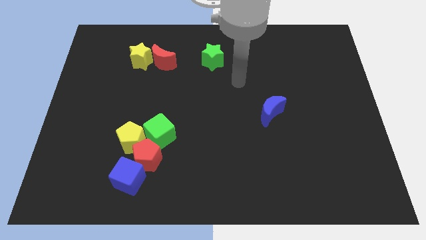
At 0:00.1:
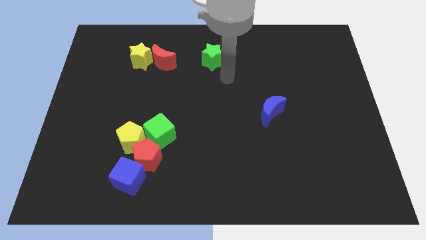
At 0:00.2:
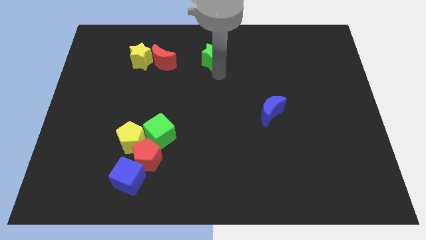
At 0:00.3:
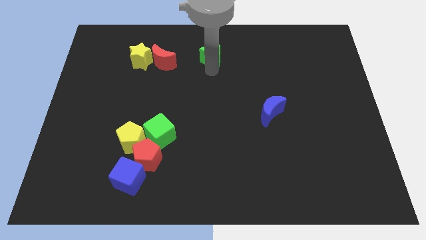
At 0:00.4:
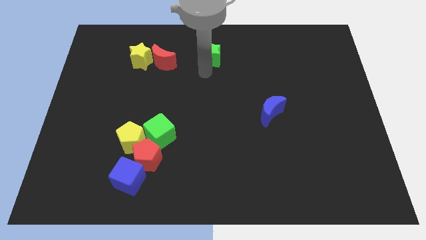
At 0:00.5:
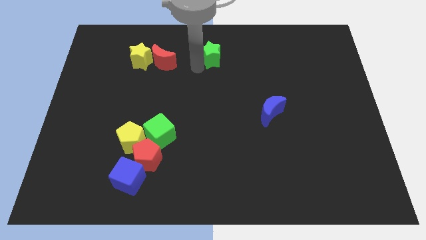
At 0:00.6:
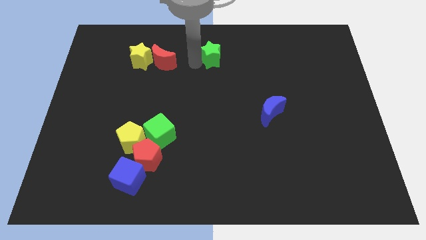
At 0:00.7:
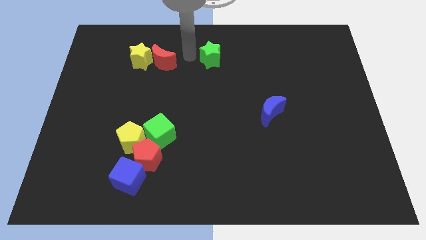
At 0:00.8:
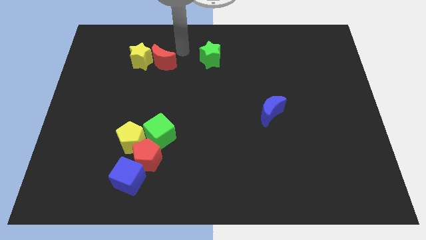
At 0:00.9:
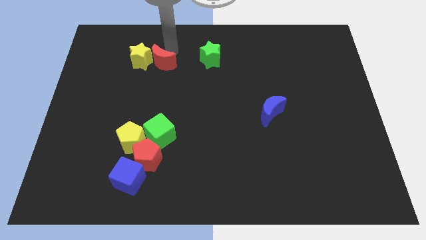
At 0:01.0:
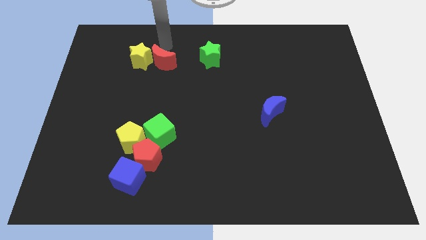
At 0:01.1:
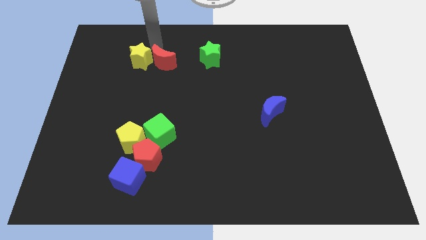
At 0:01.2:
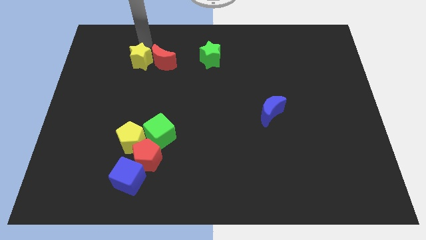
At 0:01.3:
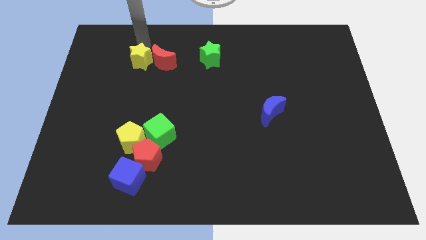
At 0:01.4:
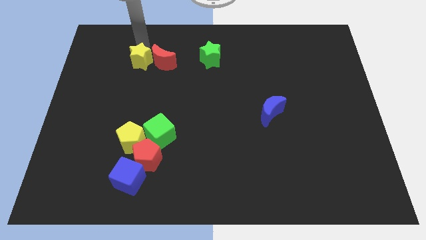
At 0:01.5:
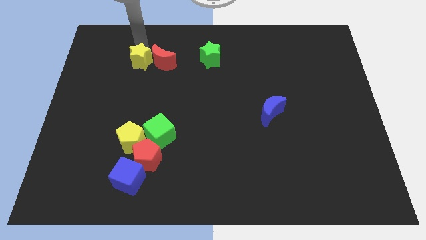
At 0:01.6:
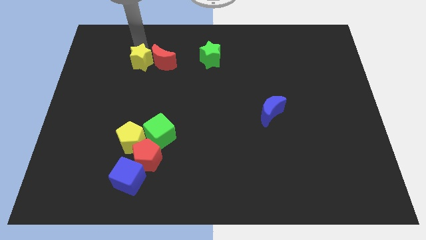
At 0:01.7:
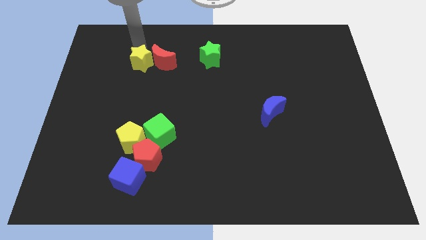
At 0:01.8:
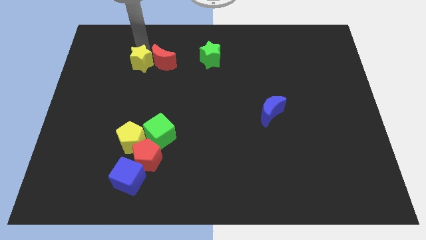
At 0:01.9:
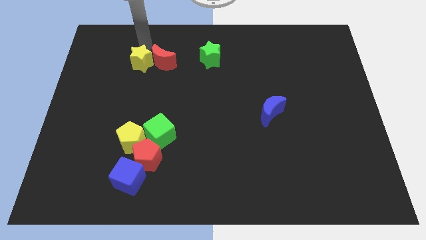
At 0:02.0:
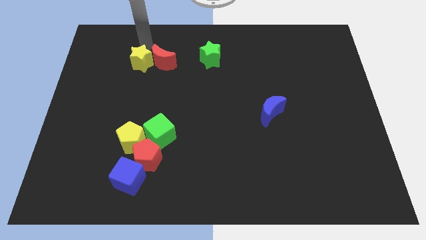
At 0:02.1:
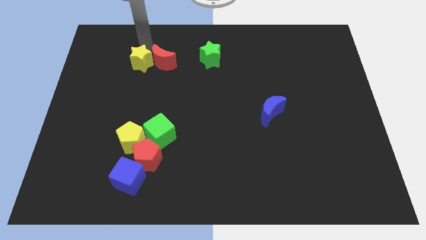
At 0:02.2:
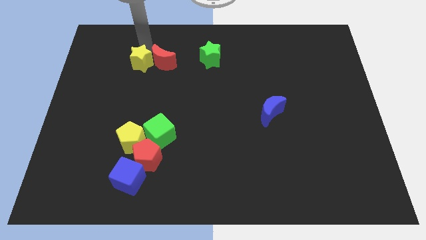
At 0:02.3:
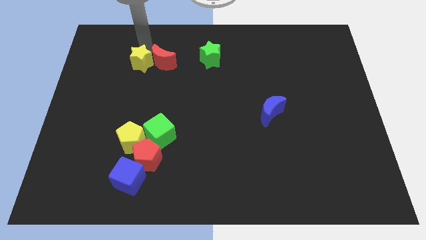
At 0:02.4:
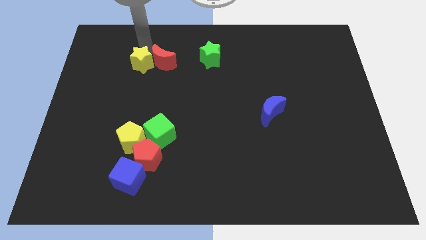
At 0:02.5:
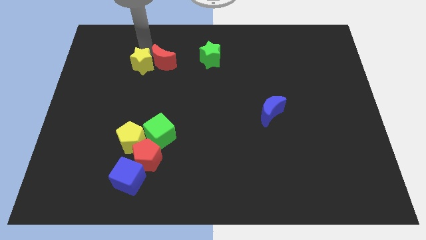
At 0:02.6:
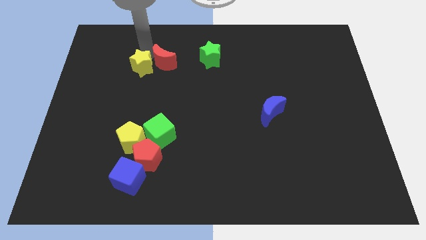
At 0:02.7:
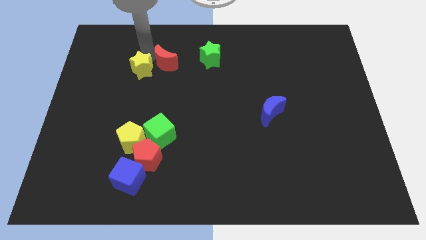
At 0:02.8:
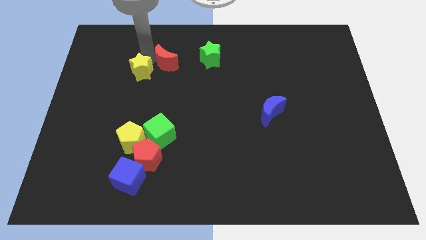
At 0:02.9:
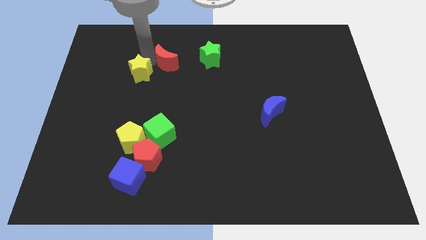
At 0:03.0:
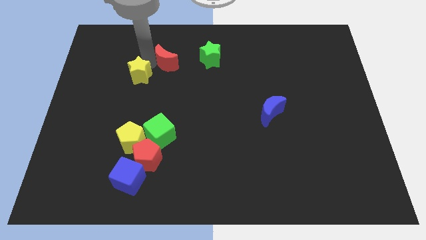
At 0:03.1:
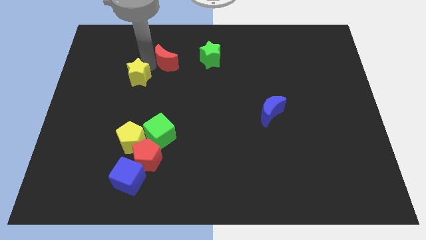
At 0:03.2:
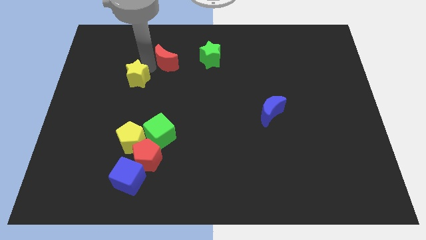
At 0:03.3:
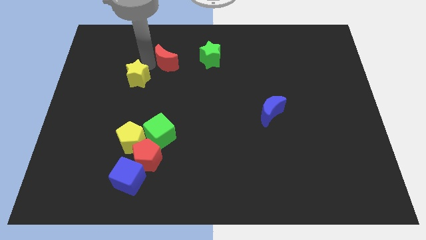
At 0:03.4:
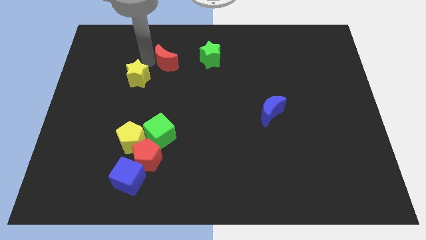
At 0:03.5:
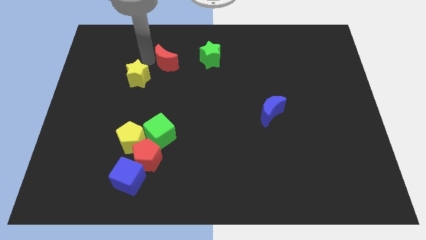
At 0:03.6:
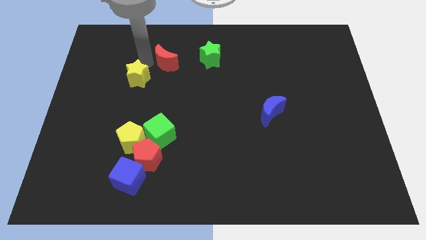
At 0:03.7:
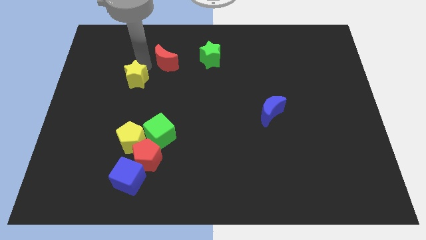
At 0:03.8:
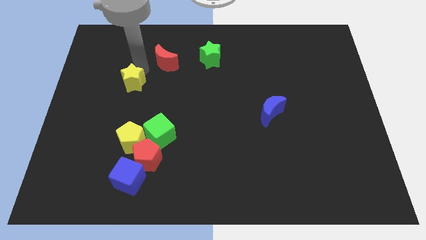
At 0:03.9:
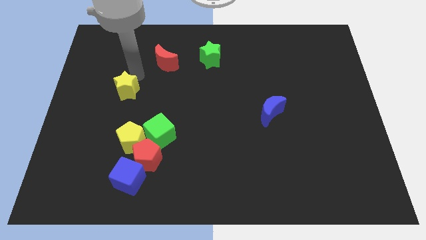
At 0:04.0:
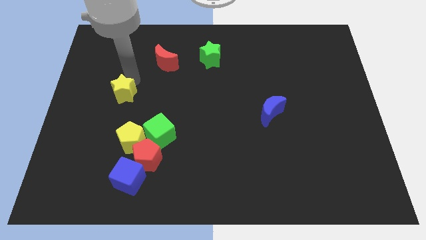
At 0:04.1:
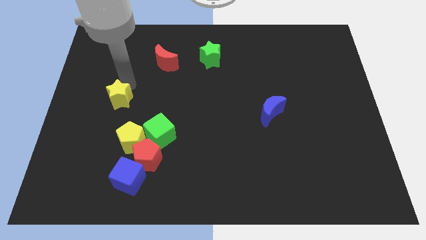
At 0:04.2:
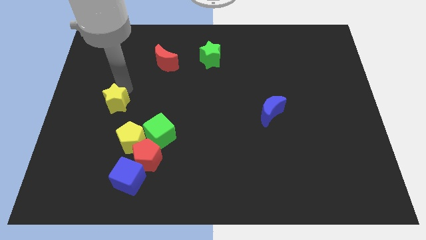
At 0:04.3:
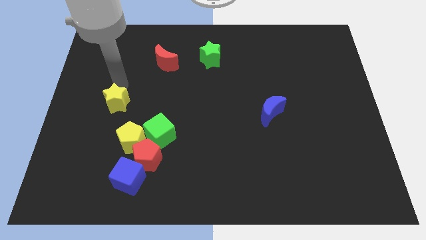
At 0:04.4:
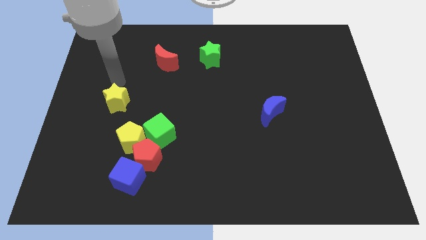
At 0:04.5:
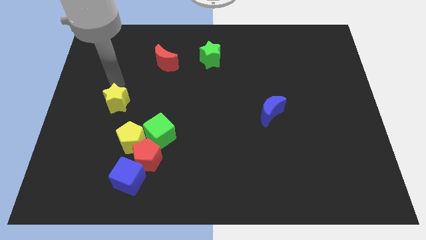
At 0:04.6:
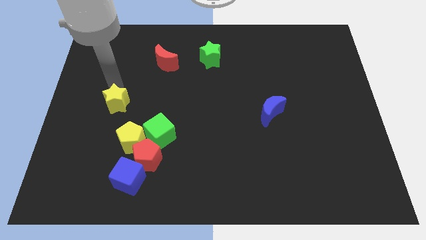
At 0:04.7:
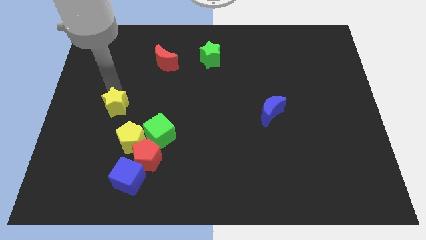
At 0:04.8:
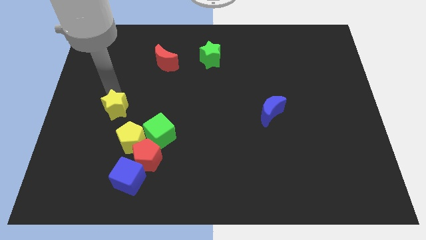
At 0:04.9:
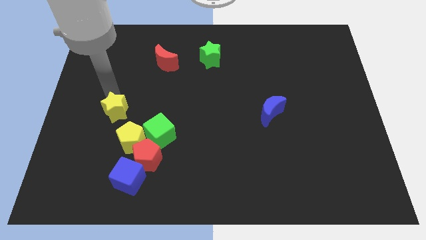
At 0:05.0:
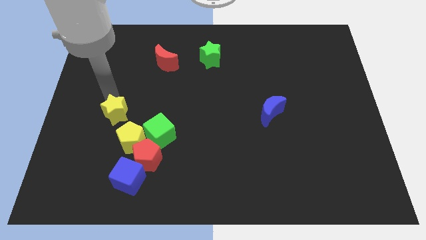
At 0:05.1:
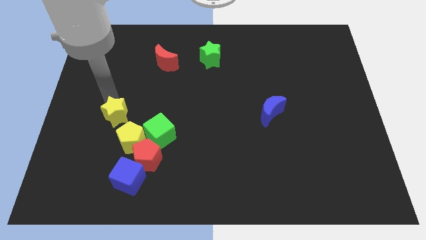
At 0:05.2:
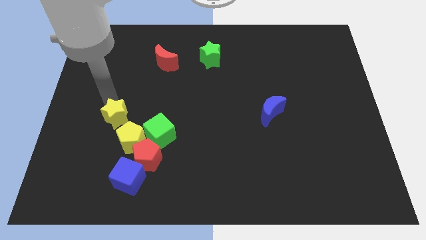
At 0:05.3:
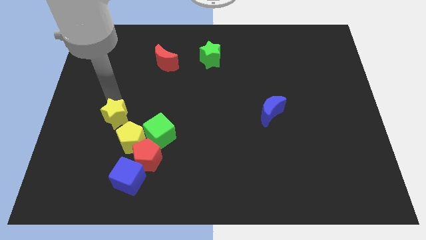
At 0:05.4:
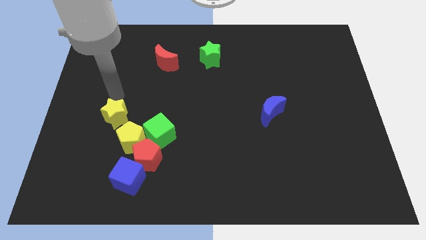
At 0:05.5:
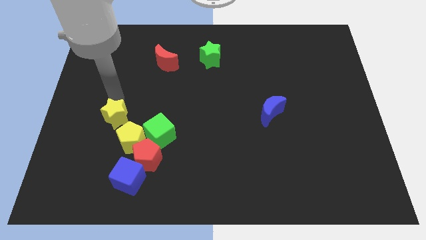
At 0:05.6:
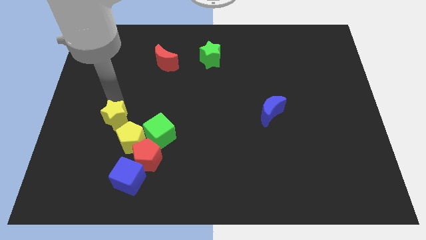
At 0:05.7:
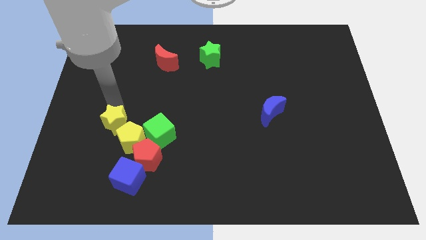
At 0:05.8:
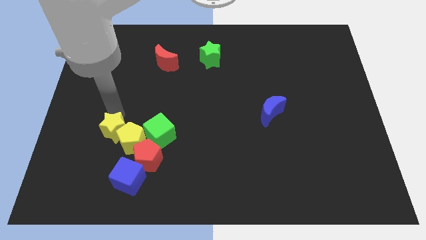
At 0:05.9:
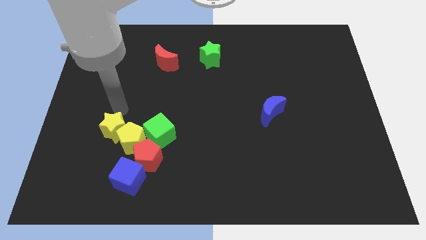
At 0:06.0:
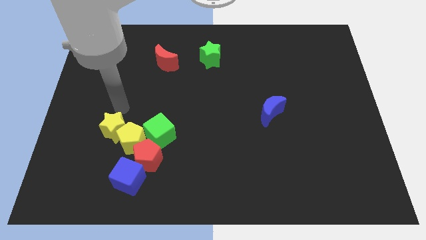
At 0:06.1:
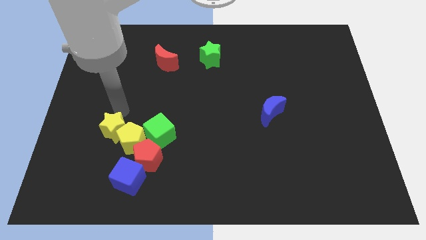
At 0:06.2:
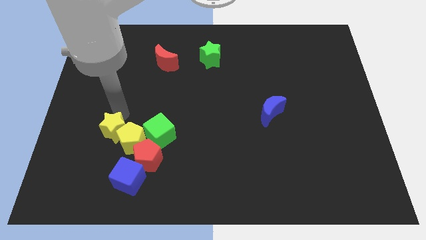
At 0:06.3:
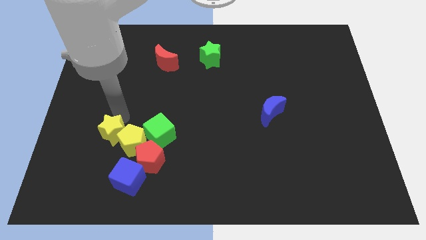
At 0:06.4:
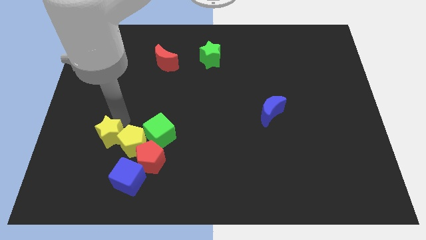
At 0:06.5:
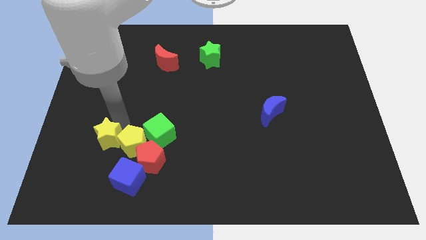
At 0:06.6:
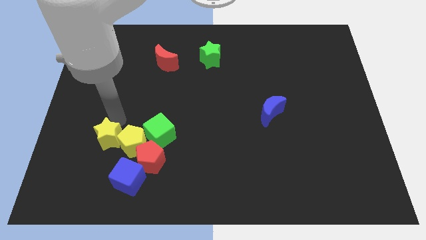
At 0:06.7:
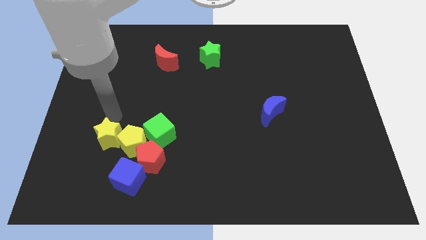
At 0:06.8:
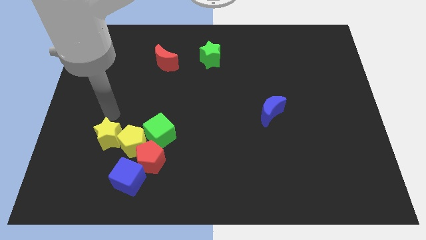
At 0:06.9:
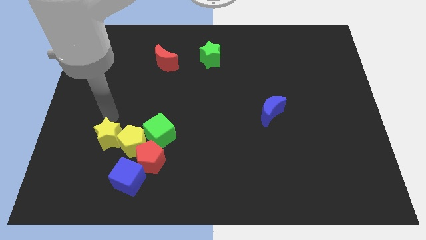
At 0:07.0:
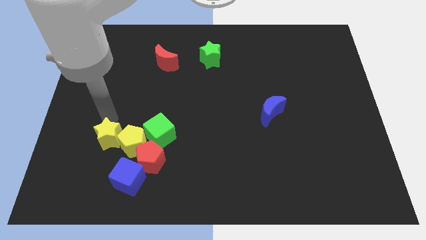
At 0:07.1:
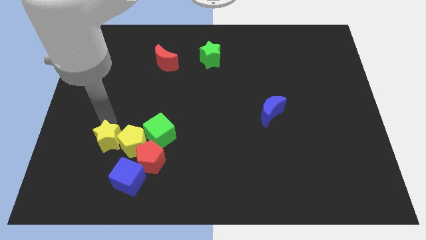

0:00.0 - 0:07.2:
slide the yellow star diagonally down and to the left of the yellow pentagon
